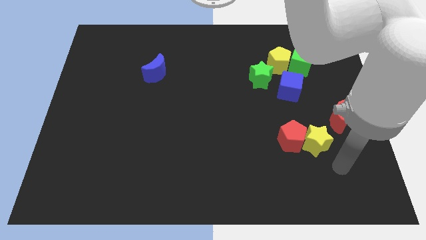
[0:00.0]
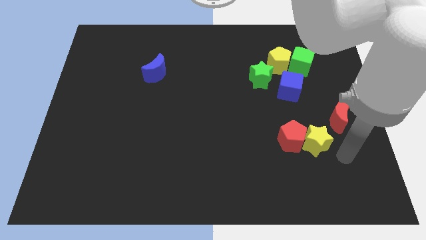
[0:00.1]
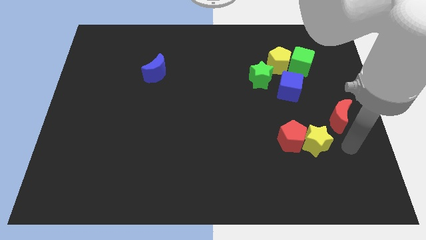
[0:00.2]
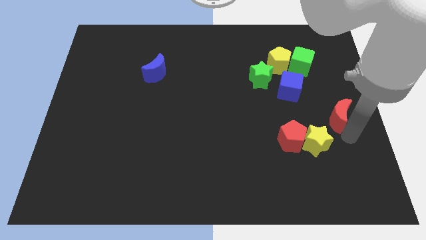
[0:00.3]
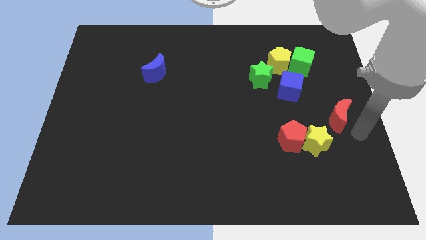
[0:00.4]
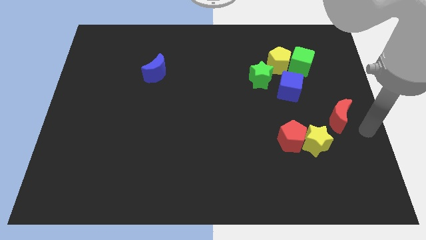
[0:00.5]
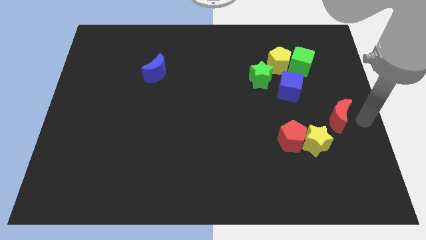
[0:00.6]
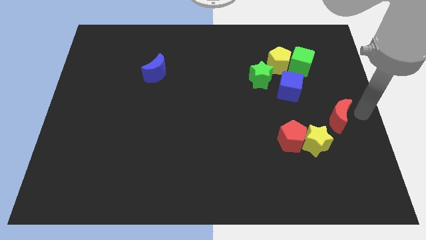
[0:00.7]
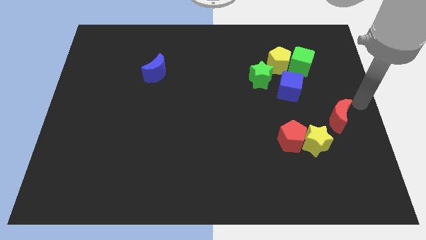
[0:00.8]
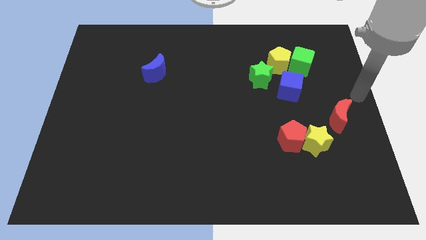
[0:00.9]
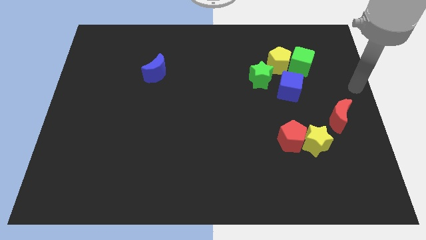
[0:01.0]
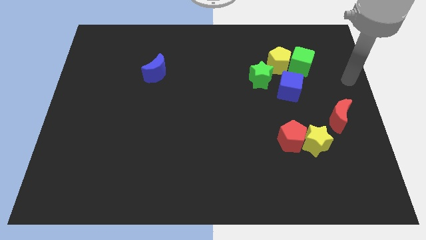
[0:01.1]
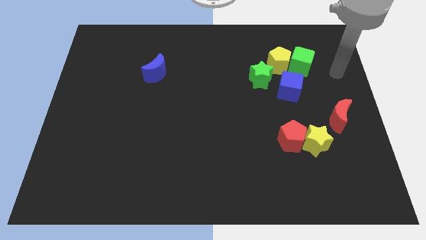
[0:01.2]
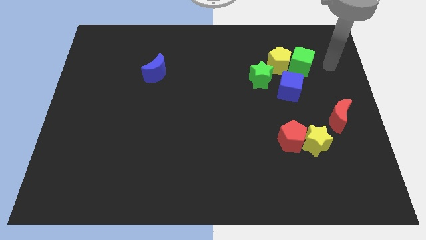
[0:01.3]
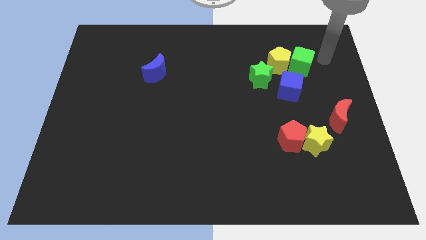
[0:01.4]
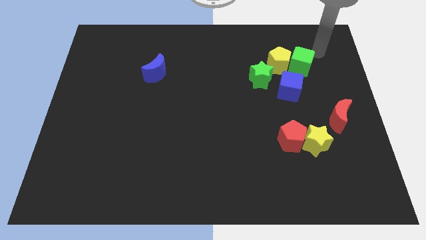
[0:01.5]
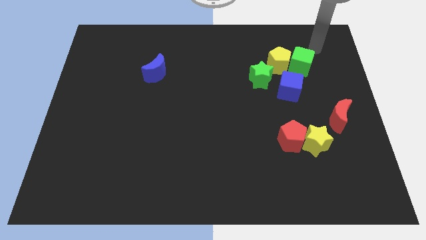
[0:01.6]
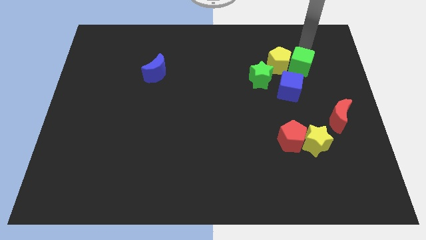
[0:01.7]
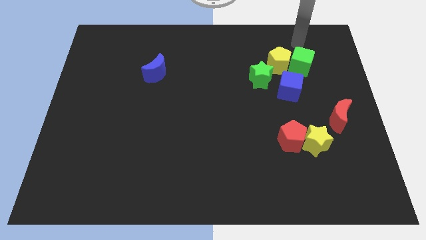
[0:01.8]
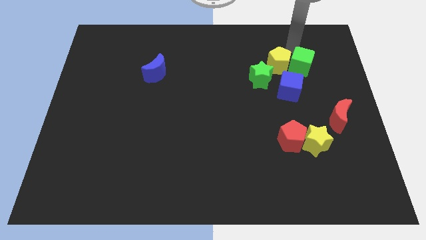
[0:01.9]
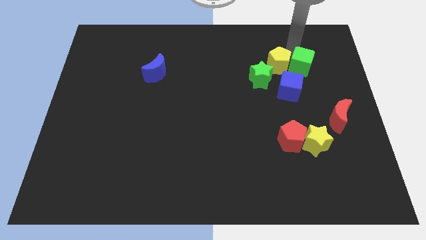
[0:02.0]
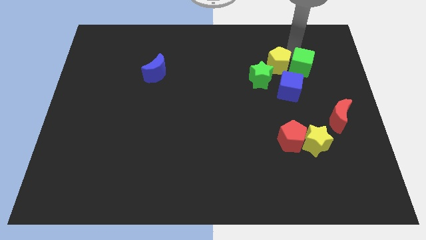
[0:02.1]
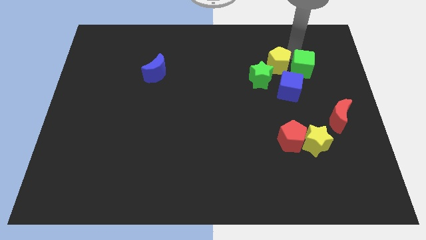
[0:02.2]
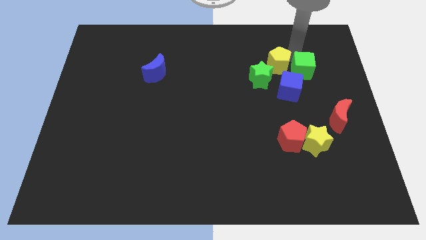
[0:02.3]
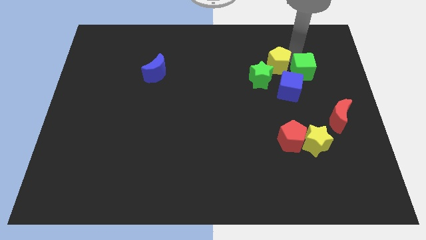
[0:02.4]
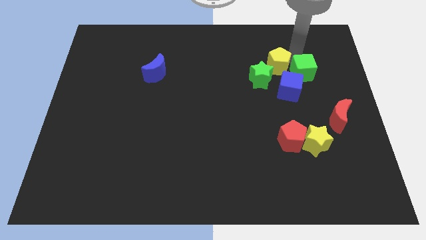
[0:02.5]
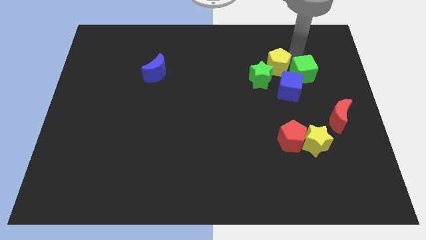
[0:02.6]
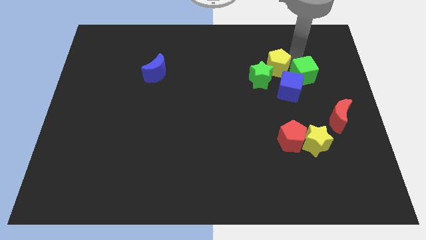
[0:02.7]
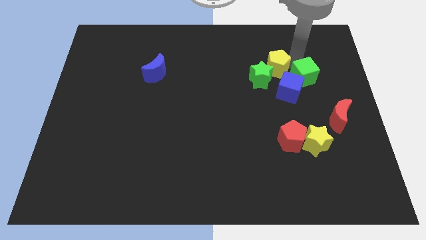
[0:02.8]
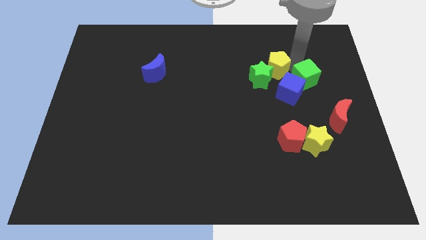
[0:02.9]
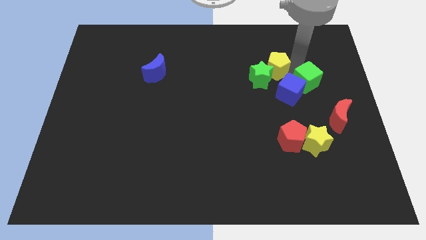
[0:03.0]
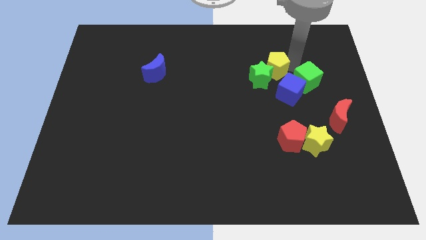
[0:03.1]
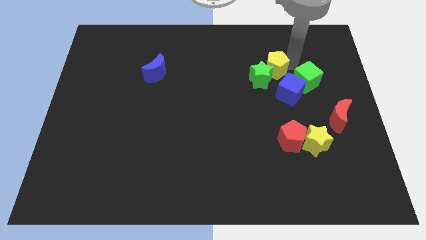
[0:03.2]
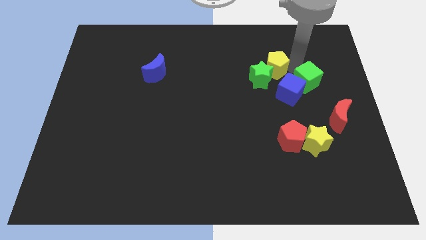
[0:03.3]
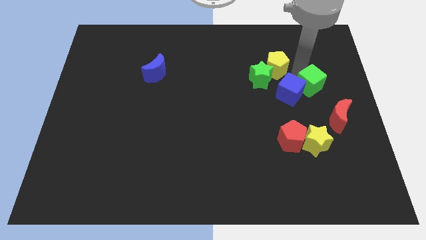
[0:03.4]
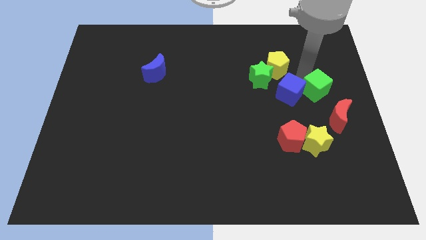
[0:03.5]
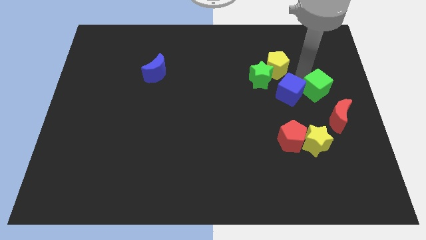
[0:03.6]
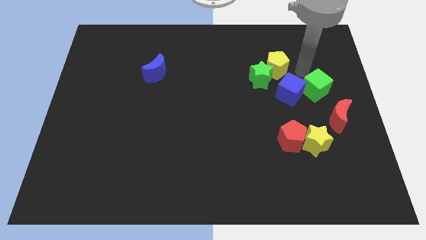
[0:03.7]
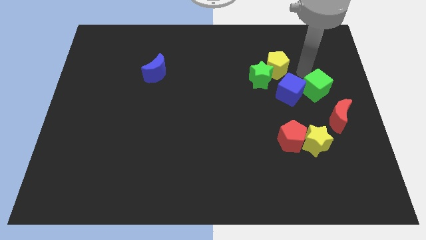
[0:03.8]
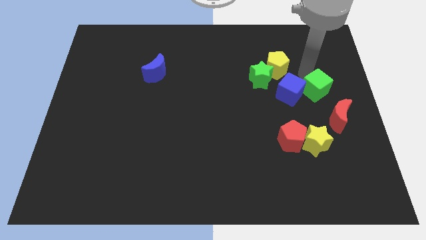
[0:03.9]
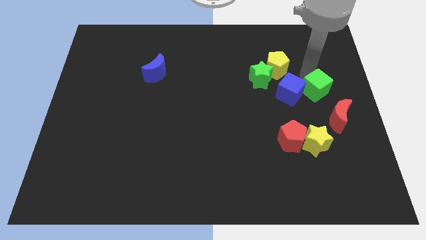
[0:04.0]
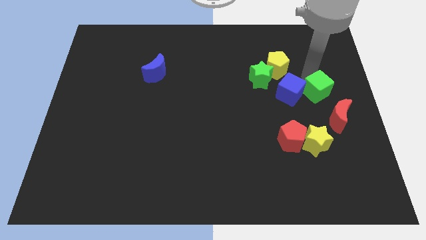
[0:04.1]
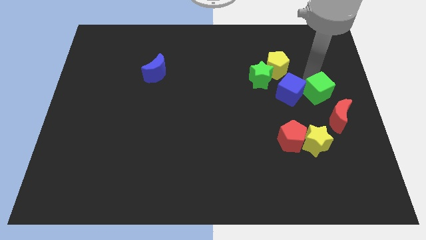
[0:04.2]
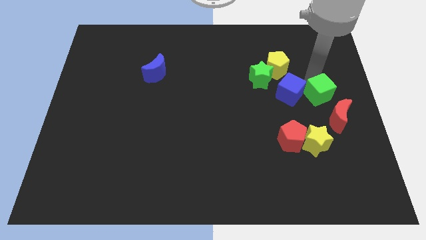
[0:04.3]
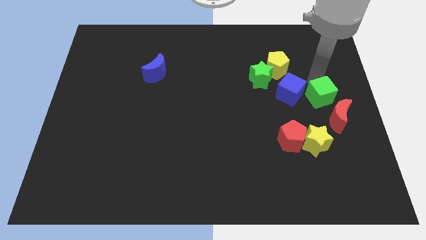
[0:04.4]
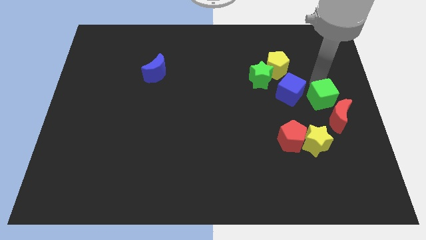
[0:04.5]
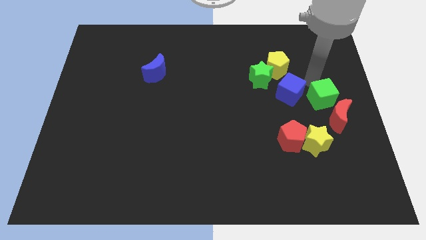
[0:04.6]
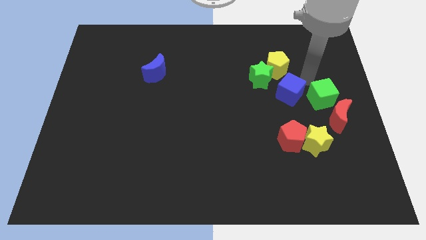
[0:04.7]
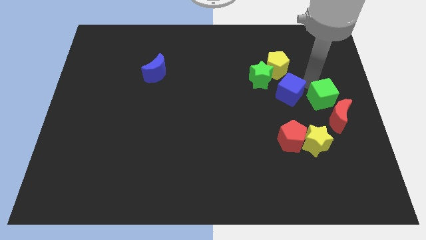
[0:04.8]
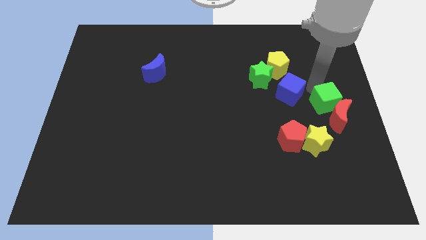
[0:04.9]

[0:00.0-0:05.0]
put the green cube next to the red moon

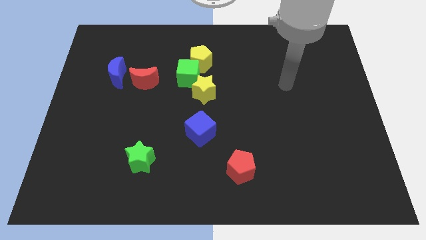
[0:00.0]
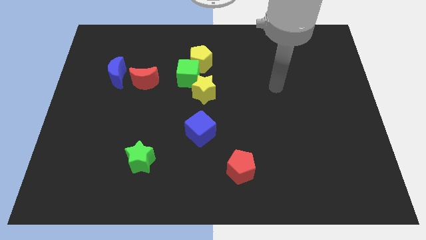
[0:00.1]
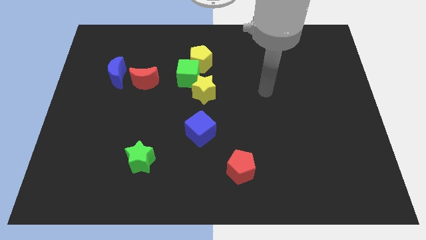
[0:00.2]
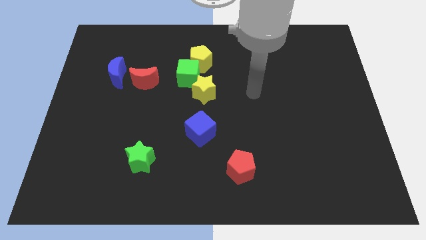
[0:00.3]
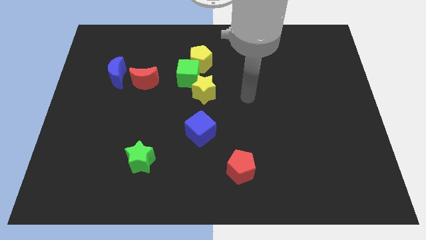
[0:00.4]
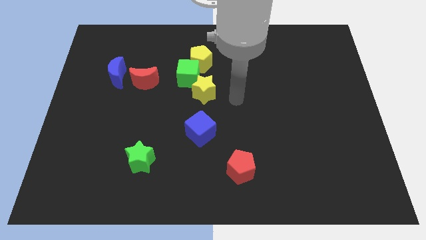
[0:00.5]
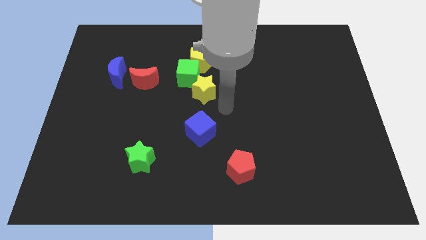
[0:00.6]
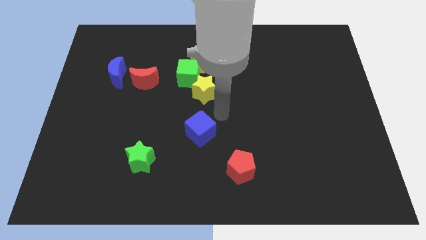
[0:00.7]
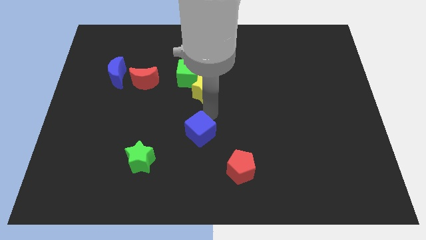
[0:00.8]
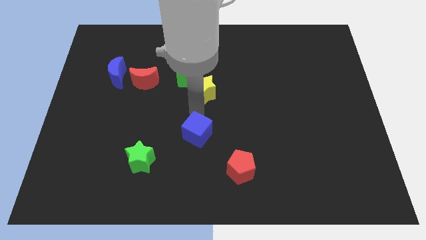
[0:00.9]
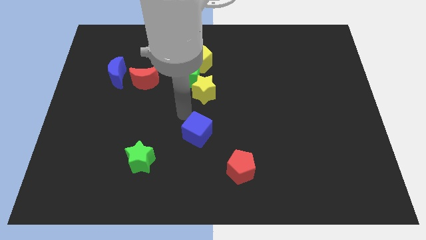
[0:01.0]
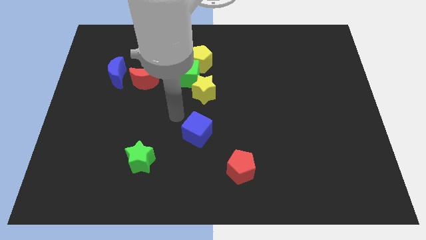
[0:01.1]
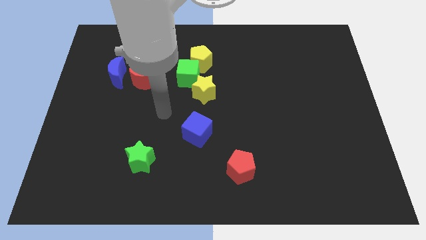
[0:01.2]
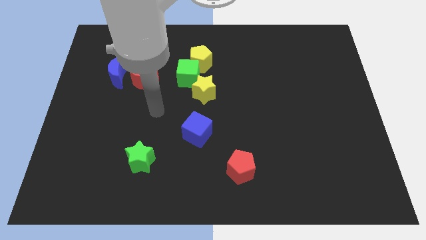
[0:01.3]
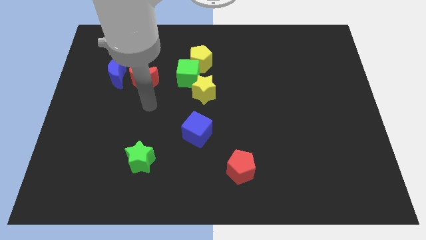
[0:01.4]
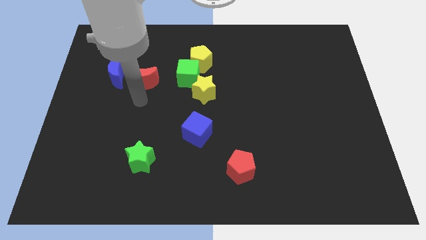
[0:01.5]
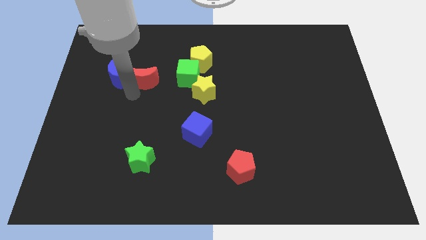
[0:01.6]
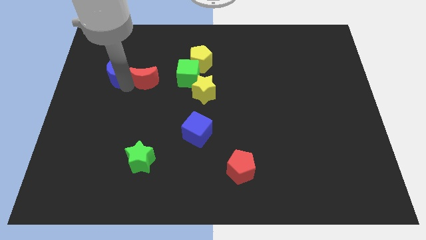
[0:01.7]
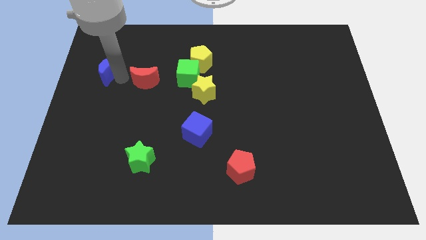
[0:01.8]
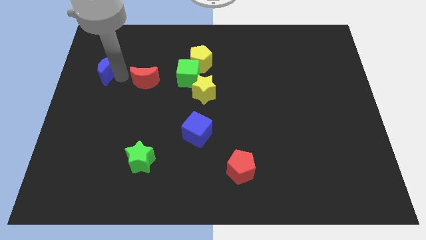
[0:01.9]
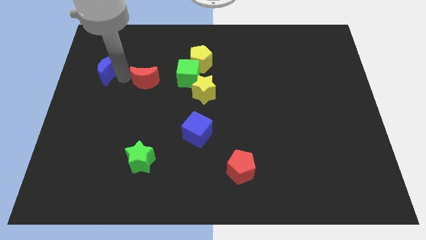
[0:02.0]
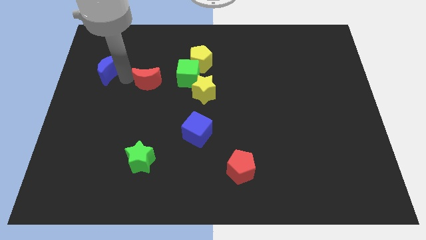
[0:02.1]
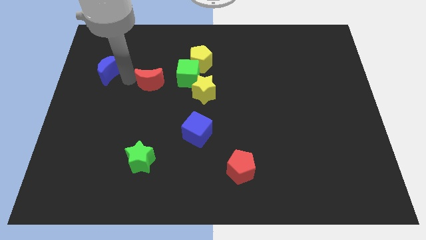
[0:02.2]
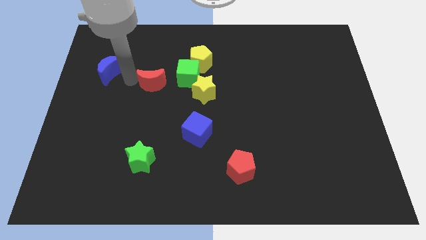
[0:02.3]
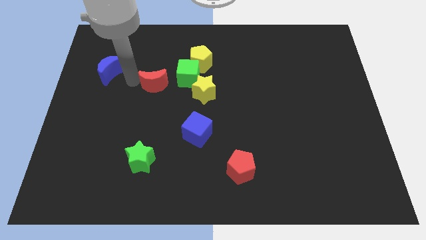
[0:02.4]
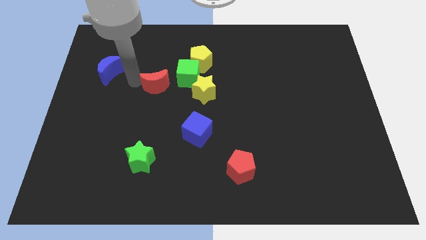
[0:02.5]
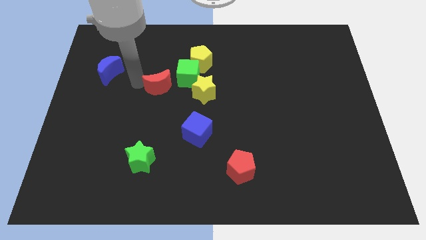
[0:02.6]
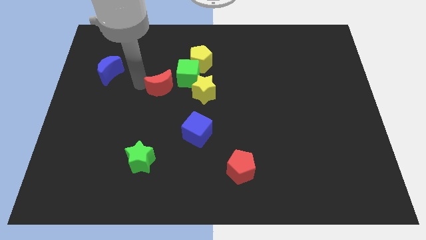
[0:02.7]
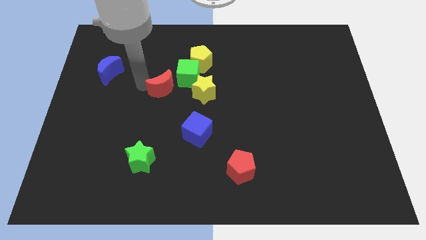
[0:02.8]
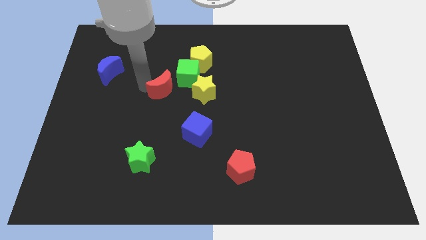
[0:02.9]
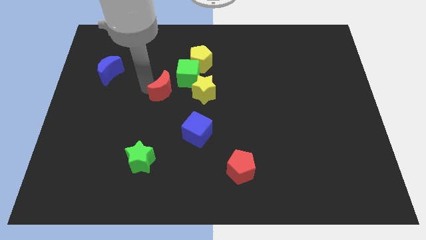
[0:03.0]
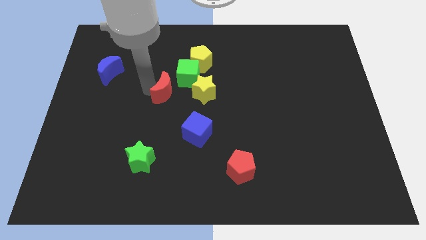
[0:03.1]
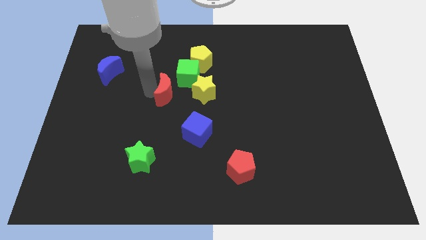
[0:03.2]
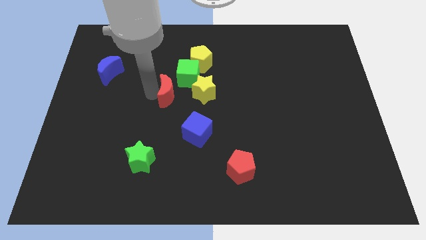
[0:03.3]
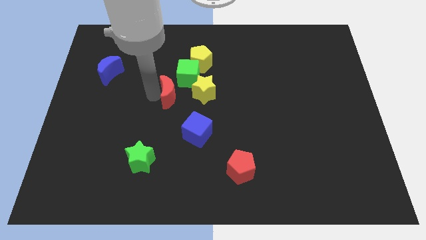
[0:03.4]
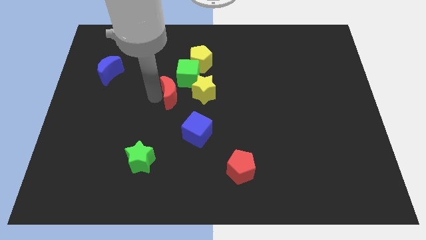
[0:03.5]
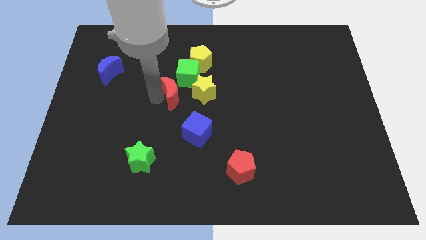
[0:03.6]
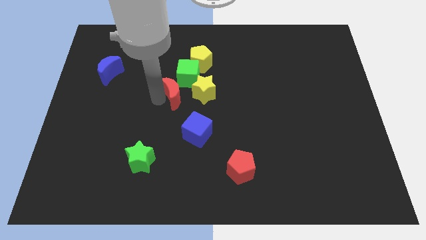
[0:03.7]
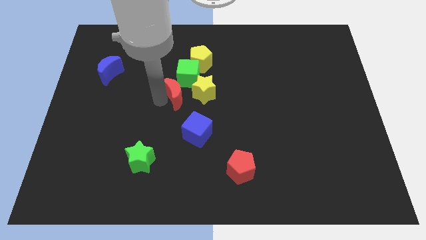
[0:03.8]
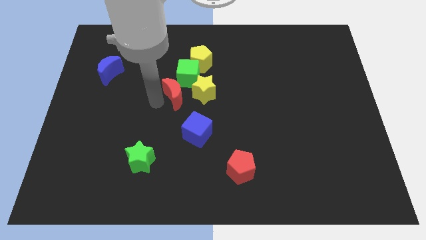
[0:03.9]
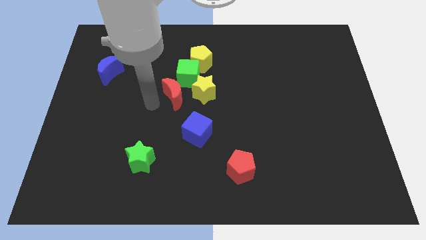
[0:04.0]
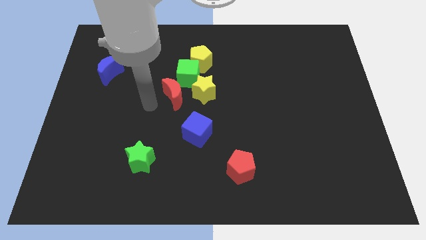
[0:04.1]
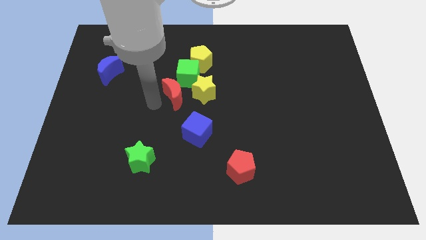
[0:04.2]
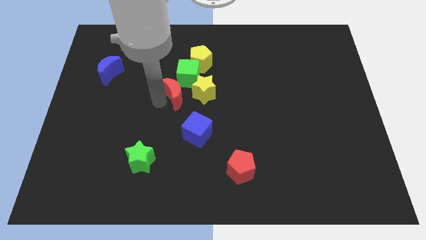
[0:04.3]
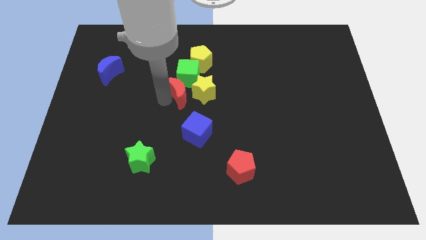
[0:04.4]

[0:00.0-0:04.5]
move the red moon next to the yellow star
